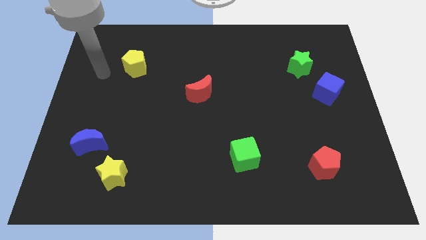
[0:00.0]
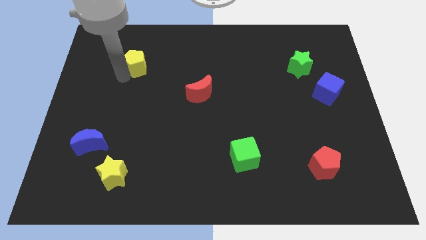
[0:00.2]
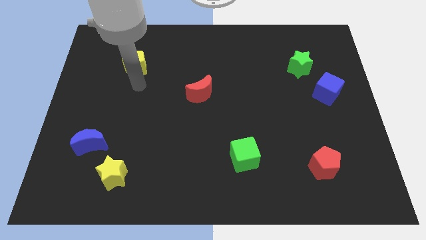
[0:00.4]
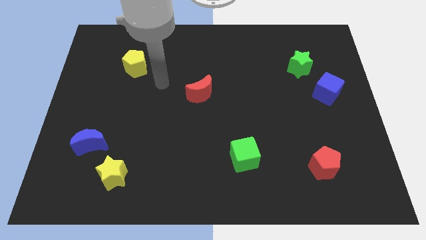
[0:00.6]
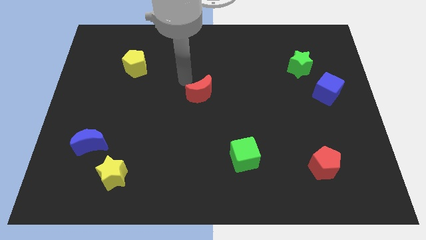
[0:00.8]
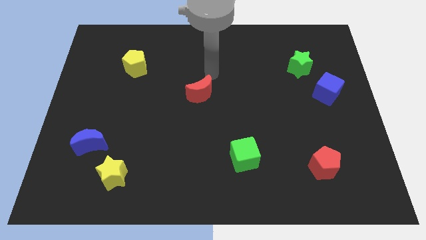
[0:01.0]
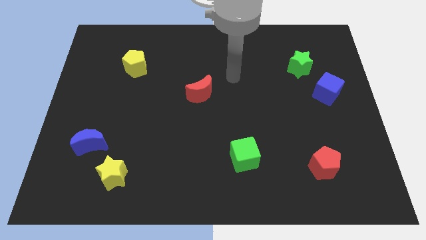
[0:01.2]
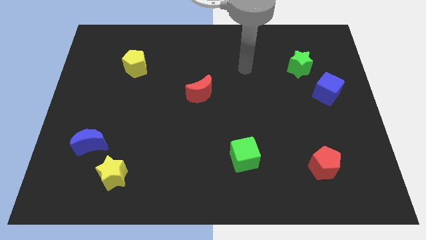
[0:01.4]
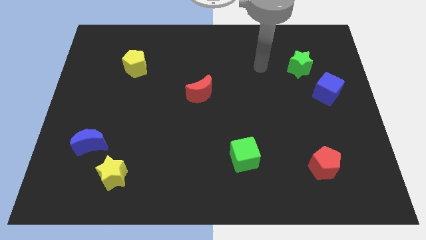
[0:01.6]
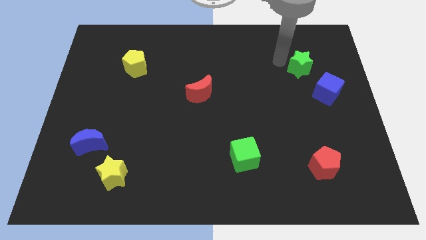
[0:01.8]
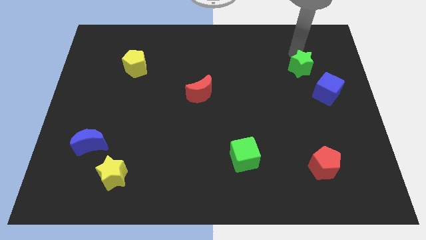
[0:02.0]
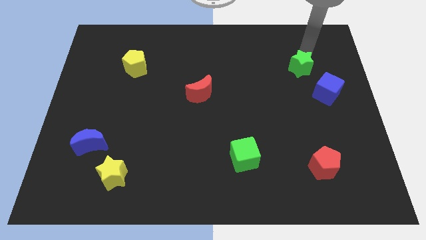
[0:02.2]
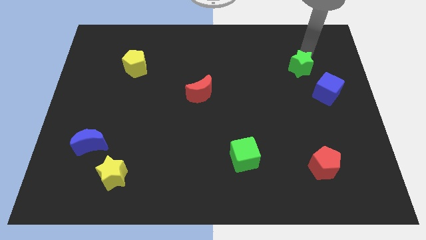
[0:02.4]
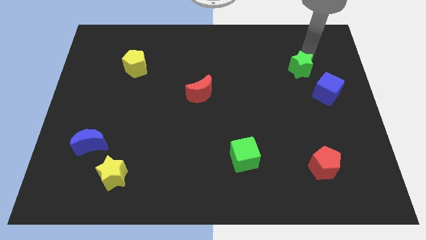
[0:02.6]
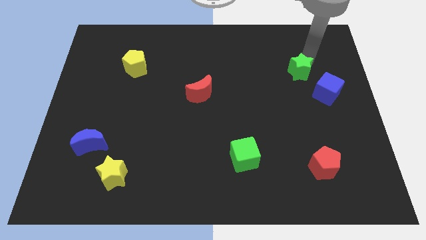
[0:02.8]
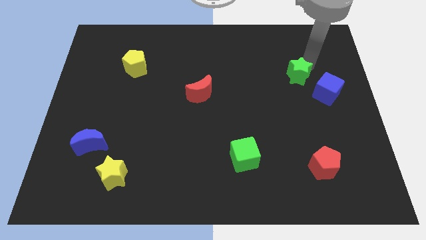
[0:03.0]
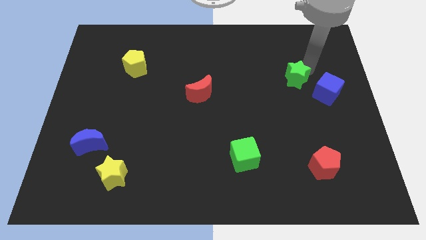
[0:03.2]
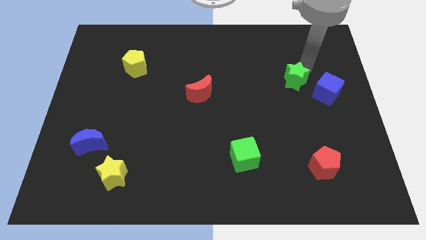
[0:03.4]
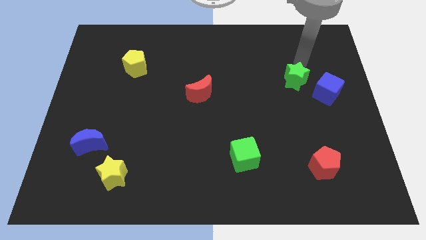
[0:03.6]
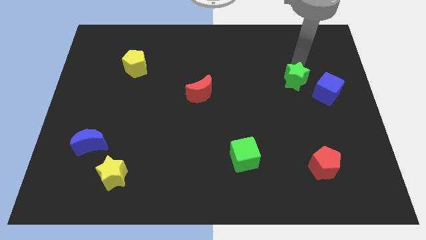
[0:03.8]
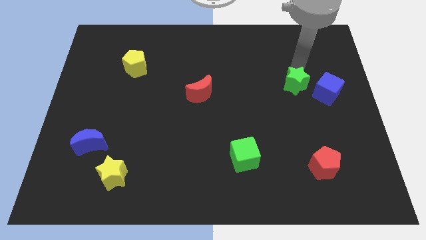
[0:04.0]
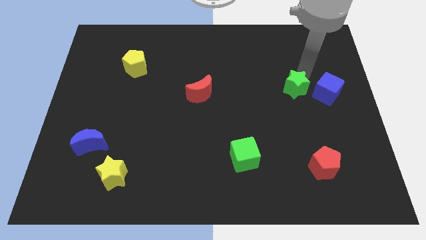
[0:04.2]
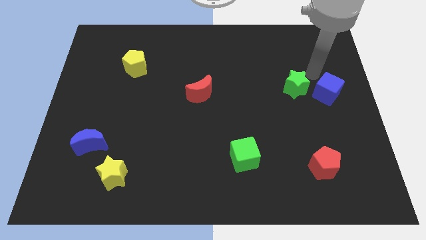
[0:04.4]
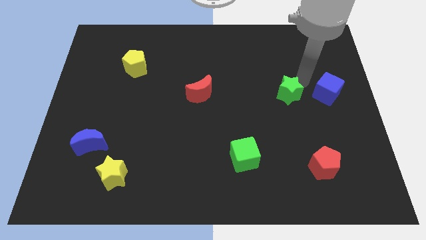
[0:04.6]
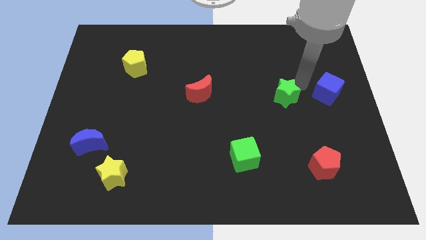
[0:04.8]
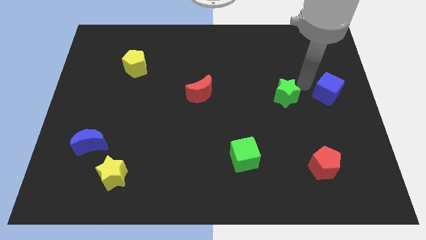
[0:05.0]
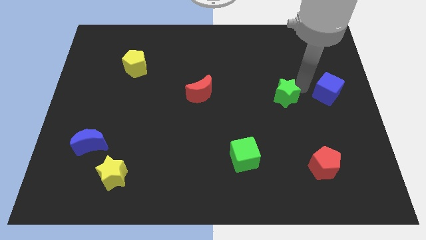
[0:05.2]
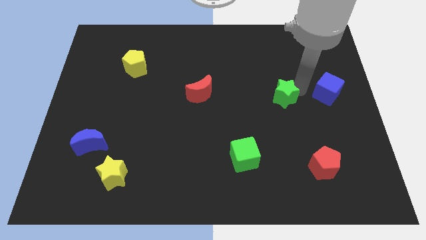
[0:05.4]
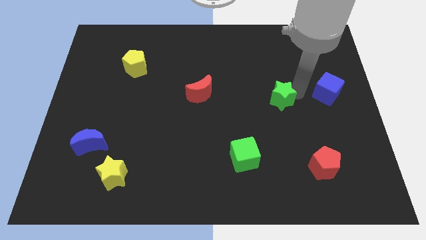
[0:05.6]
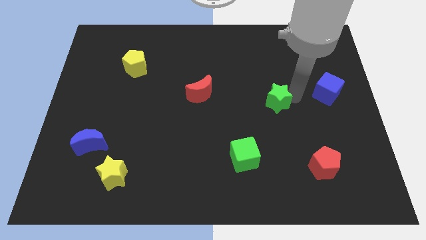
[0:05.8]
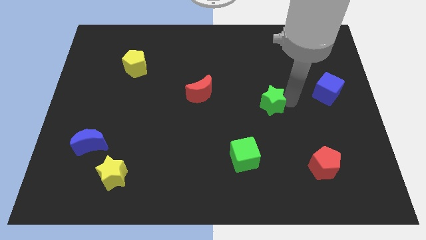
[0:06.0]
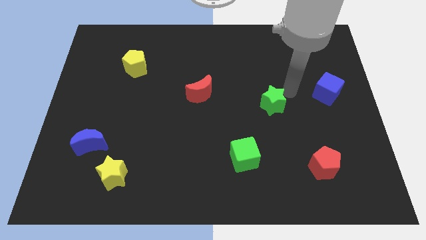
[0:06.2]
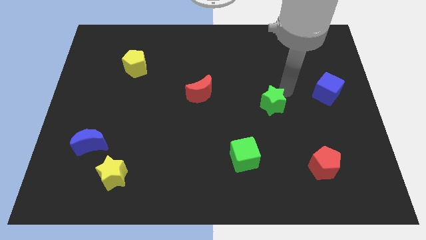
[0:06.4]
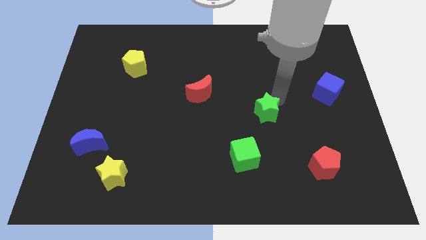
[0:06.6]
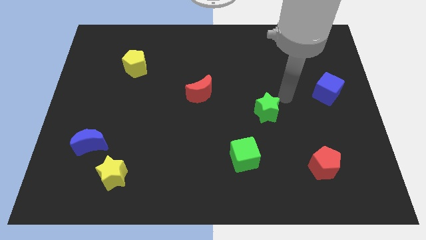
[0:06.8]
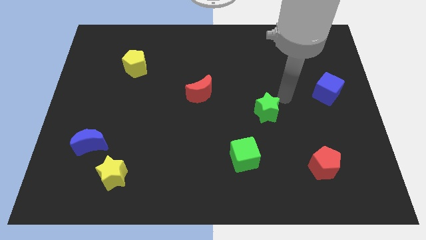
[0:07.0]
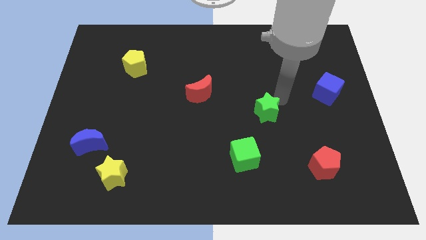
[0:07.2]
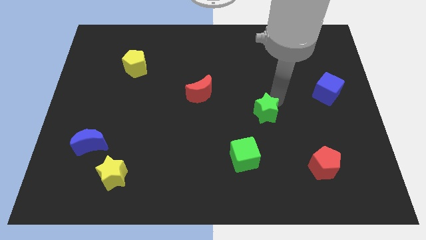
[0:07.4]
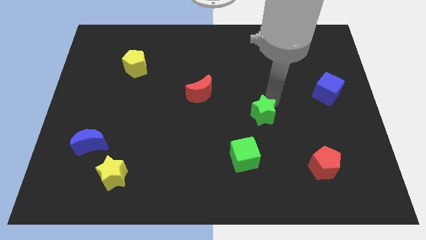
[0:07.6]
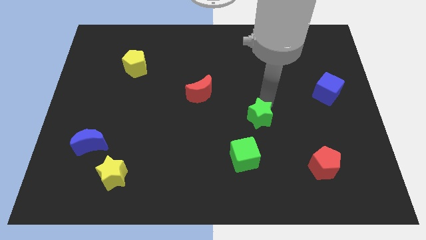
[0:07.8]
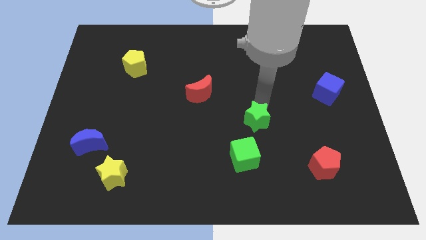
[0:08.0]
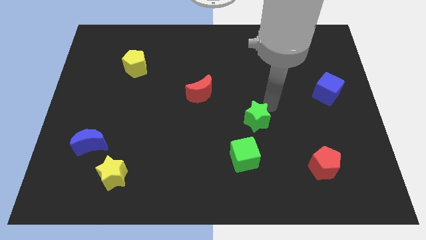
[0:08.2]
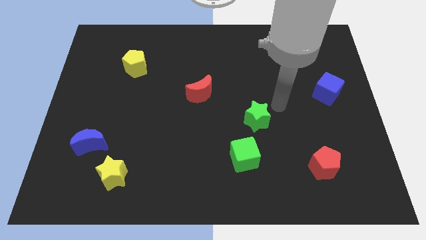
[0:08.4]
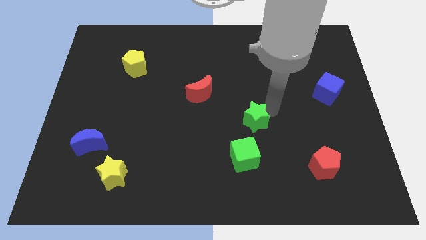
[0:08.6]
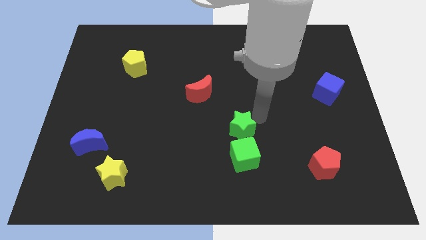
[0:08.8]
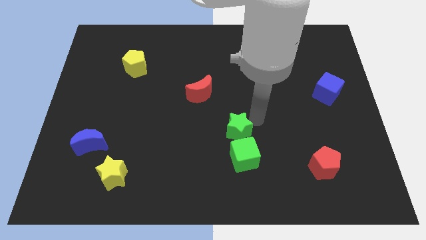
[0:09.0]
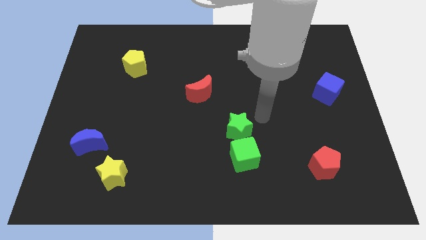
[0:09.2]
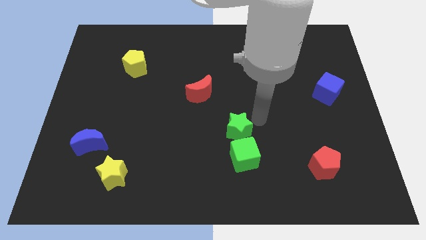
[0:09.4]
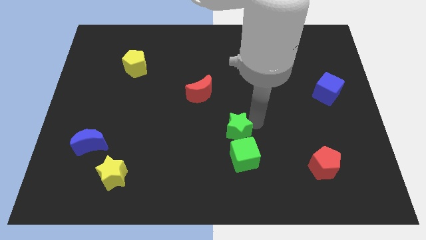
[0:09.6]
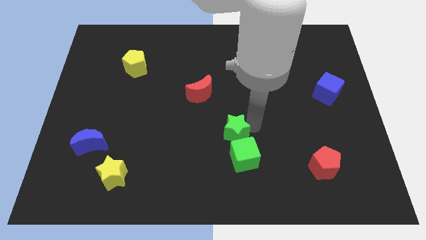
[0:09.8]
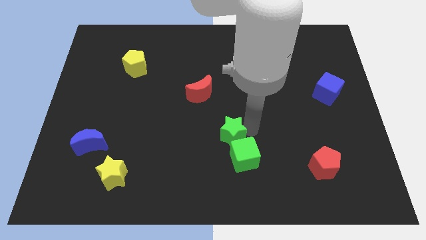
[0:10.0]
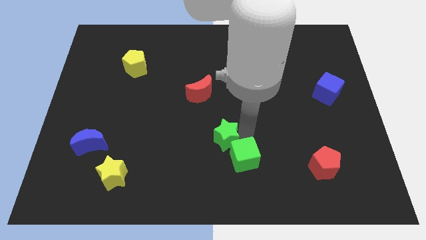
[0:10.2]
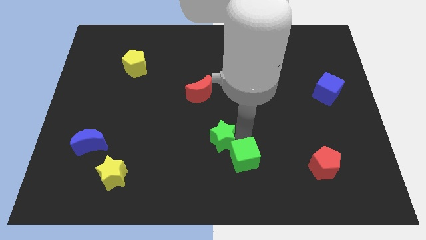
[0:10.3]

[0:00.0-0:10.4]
push the green star left of the green cube

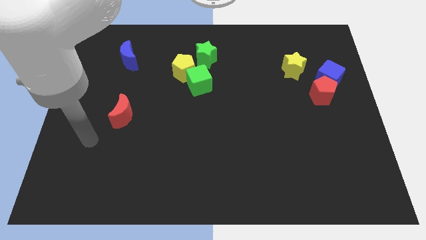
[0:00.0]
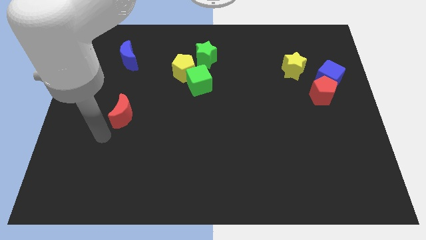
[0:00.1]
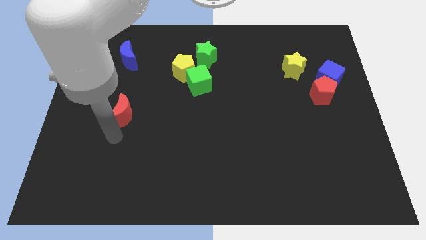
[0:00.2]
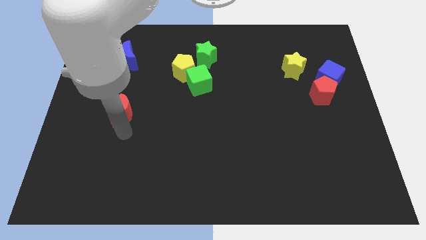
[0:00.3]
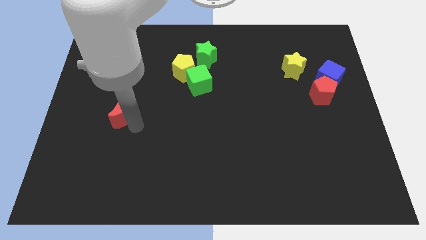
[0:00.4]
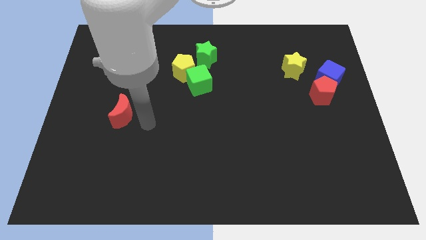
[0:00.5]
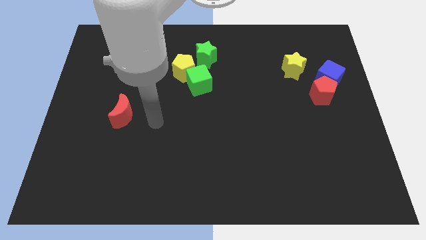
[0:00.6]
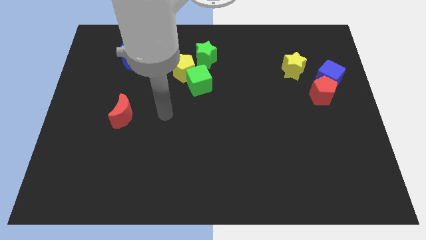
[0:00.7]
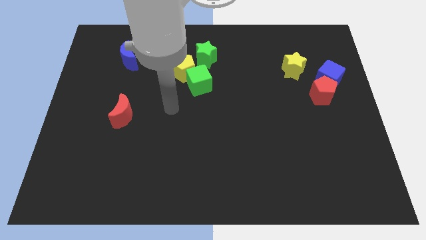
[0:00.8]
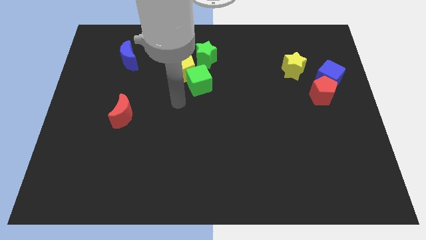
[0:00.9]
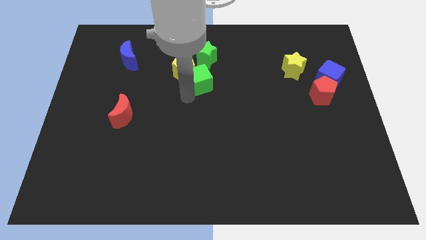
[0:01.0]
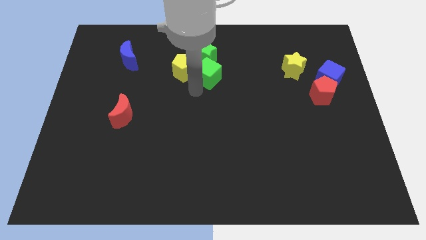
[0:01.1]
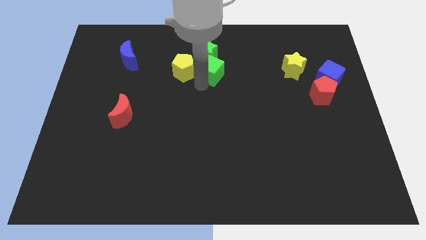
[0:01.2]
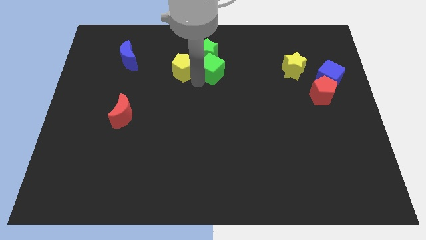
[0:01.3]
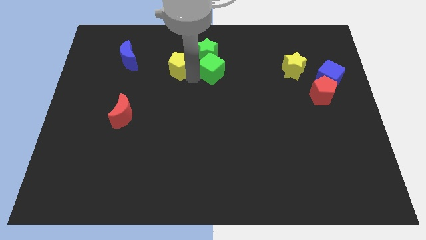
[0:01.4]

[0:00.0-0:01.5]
put the yellow pentagon to the right side of the blue moon

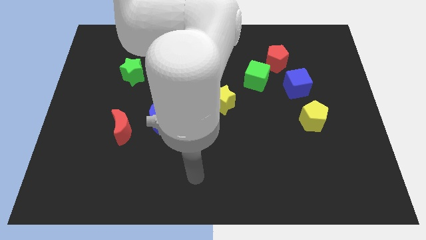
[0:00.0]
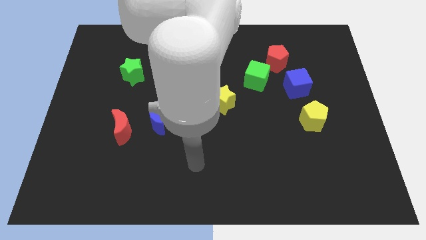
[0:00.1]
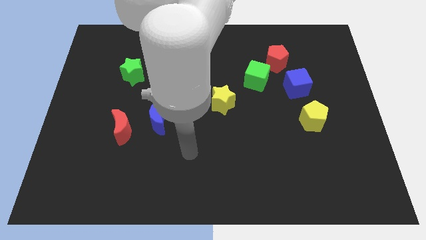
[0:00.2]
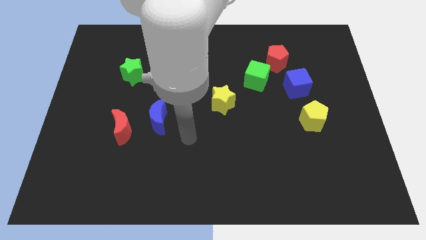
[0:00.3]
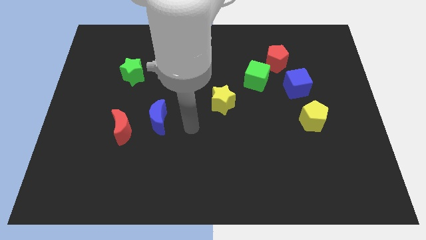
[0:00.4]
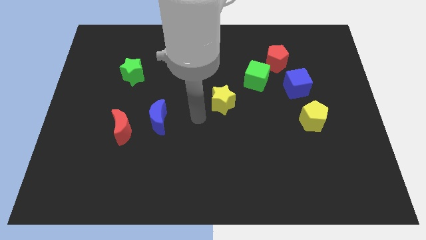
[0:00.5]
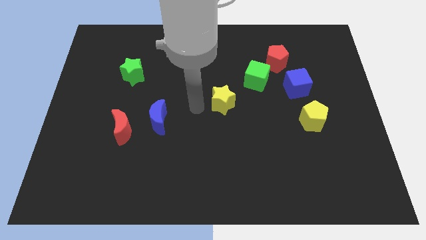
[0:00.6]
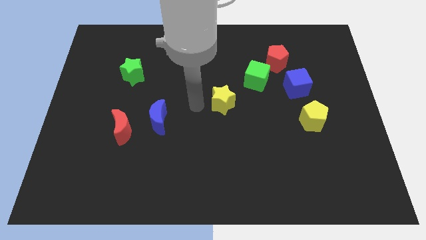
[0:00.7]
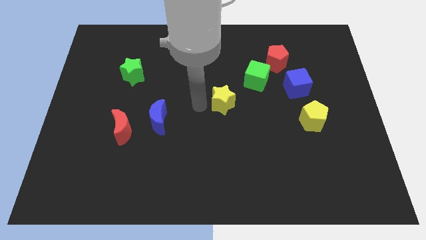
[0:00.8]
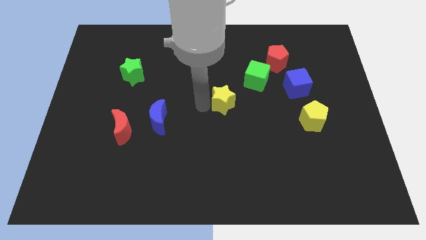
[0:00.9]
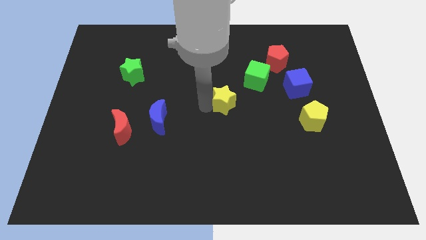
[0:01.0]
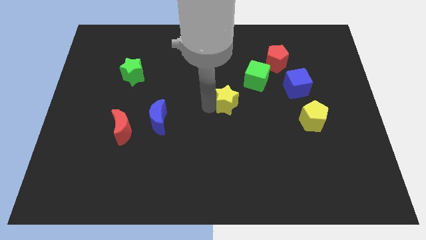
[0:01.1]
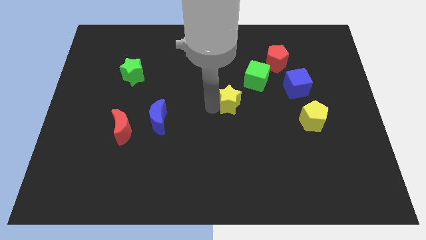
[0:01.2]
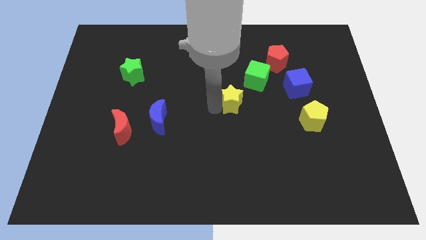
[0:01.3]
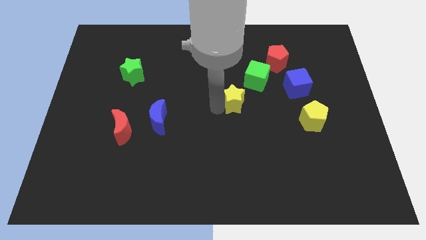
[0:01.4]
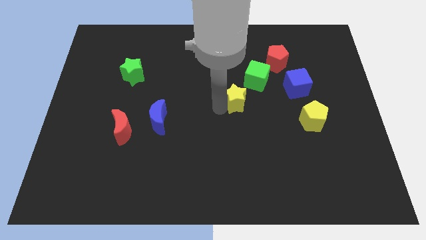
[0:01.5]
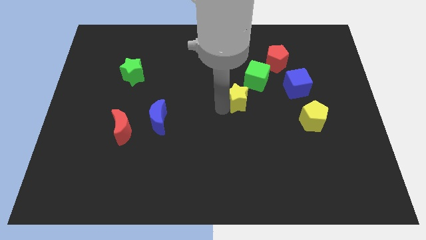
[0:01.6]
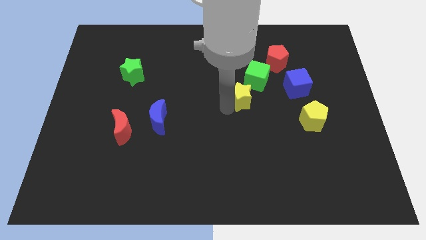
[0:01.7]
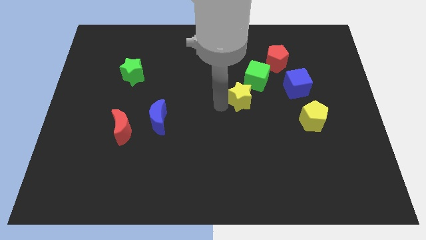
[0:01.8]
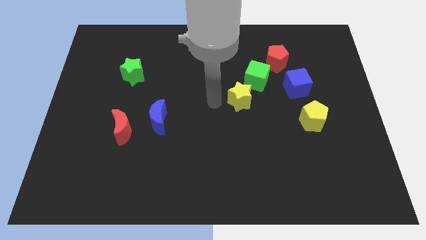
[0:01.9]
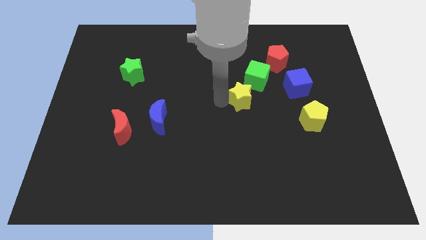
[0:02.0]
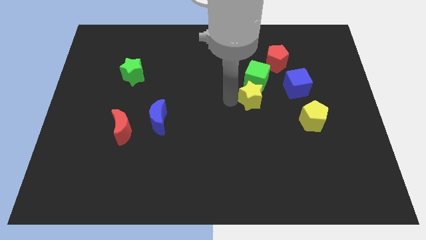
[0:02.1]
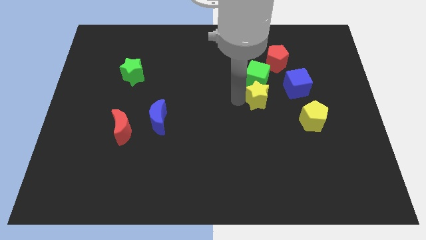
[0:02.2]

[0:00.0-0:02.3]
put the yellow star to the bottom right of the green cube
